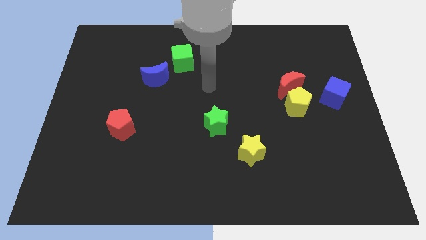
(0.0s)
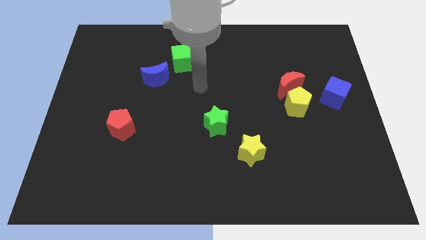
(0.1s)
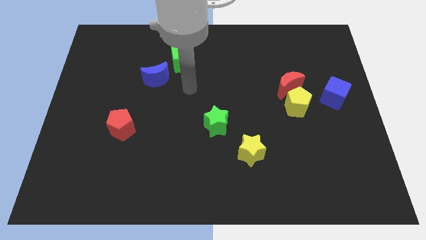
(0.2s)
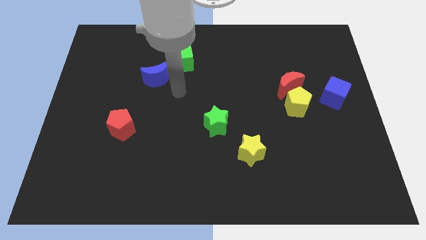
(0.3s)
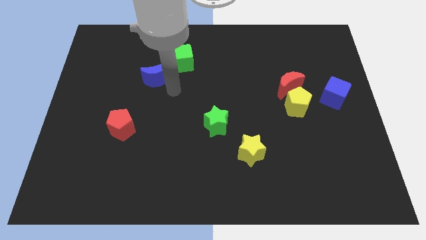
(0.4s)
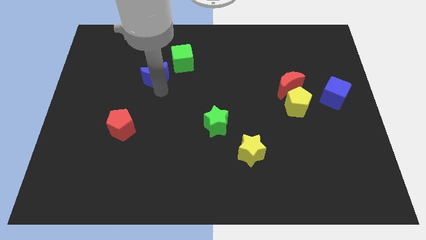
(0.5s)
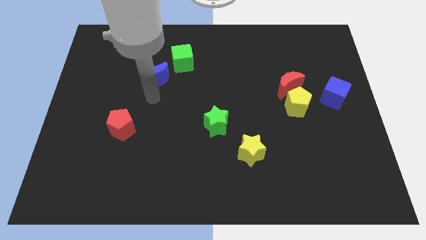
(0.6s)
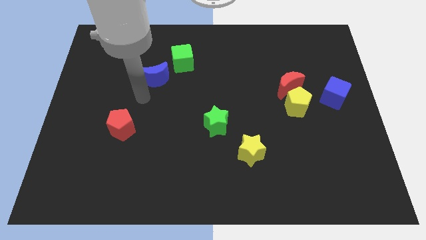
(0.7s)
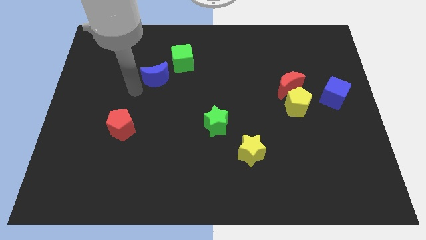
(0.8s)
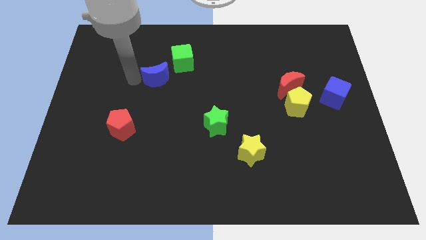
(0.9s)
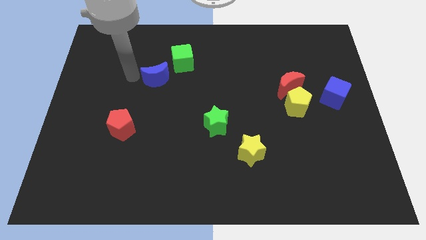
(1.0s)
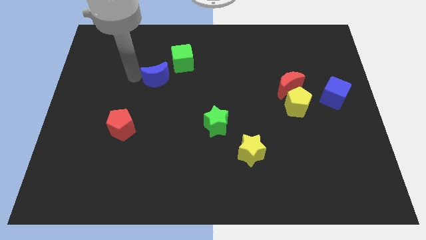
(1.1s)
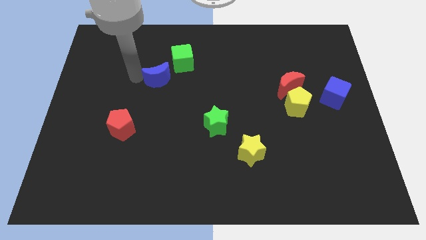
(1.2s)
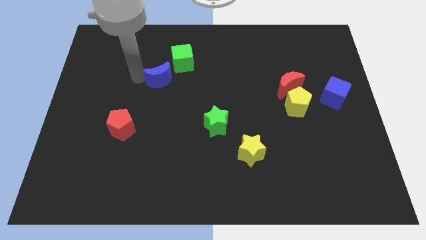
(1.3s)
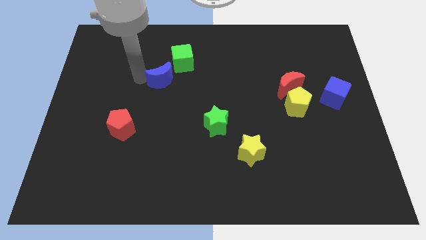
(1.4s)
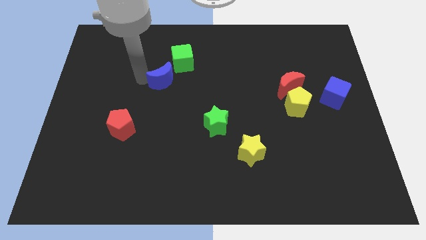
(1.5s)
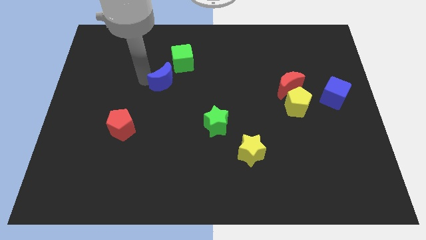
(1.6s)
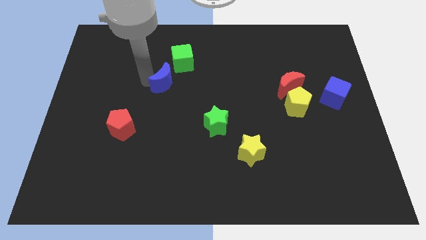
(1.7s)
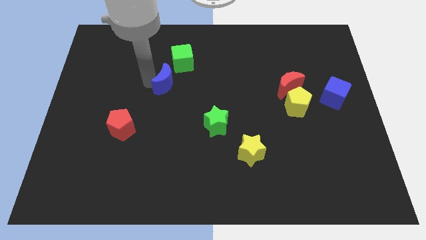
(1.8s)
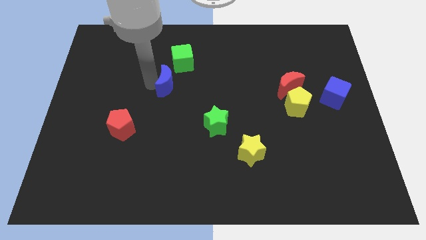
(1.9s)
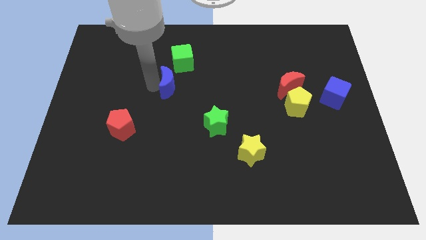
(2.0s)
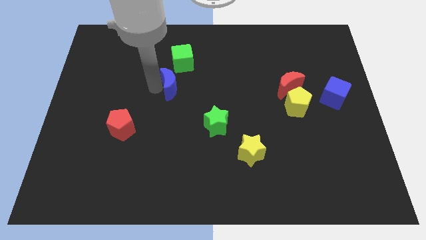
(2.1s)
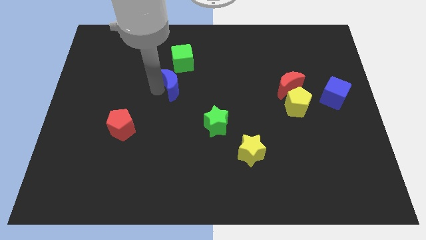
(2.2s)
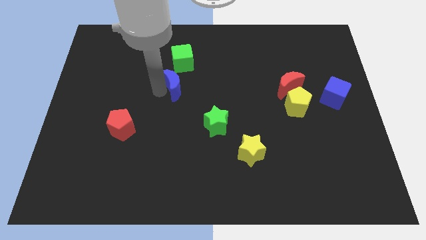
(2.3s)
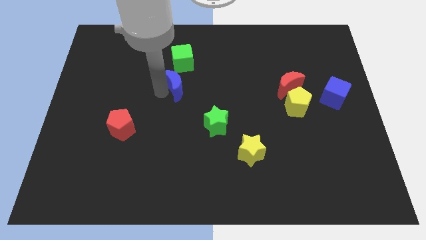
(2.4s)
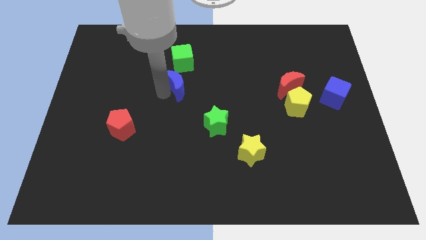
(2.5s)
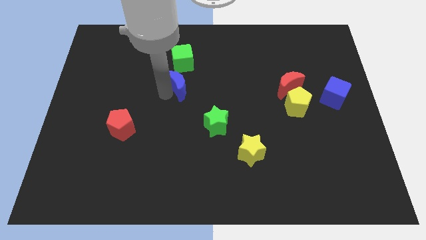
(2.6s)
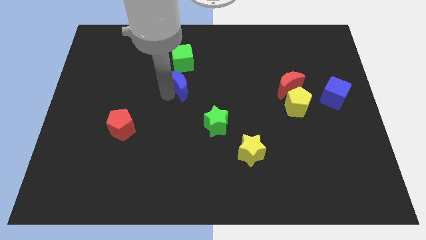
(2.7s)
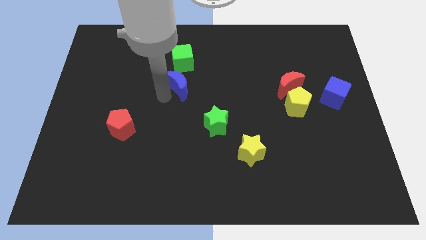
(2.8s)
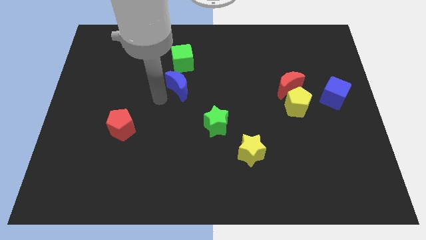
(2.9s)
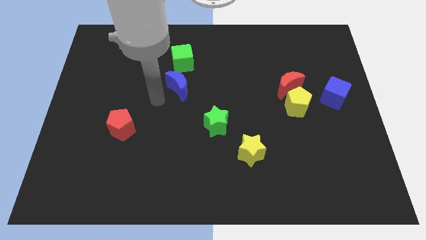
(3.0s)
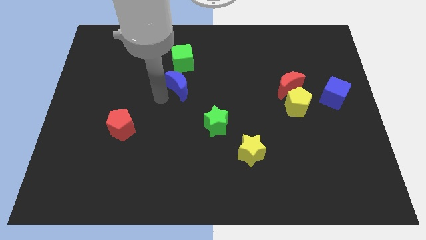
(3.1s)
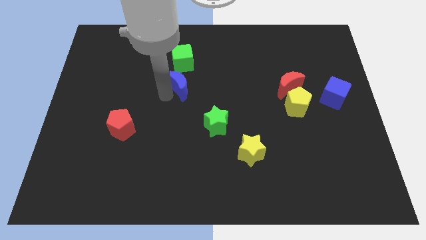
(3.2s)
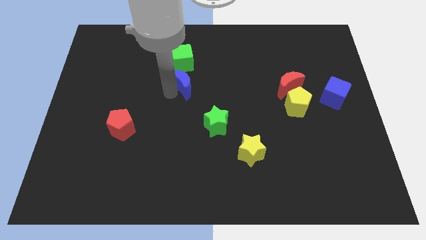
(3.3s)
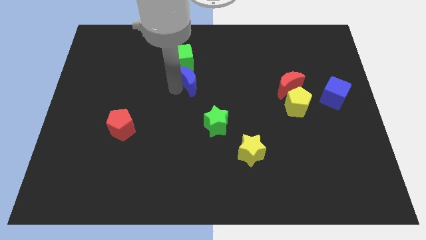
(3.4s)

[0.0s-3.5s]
slide the blue moon right a little

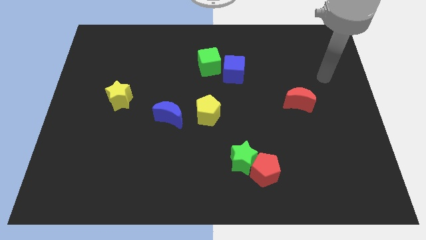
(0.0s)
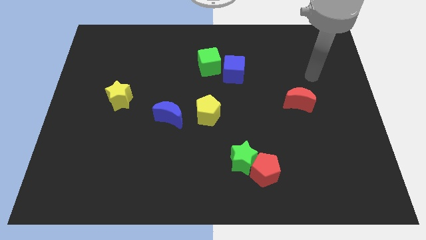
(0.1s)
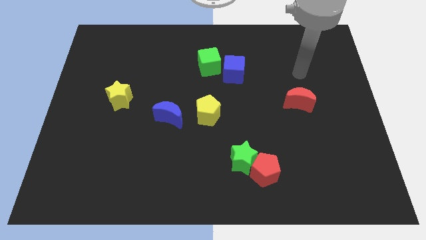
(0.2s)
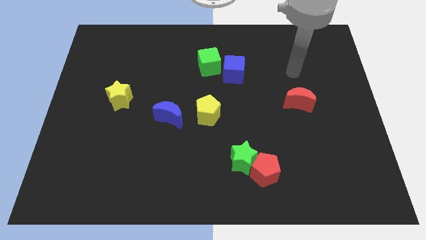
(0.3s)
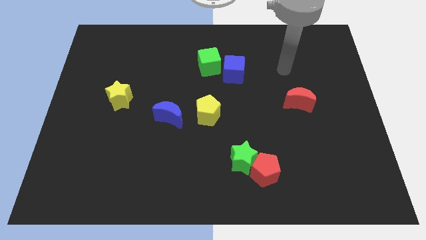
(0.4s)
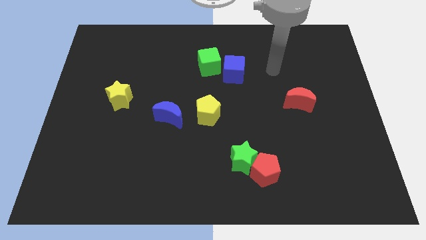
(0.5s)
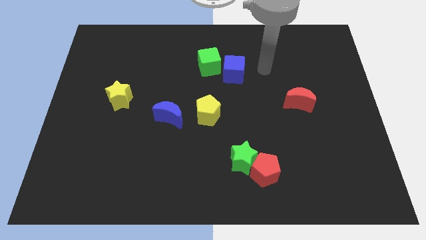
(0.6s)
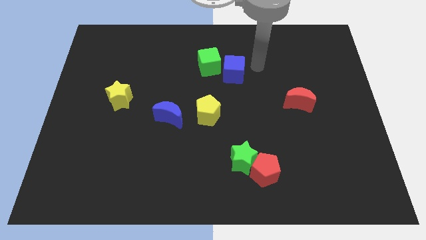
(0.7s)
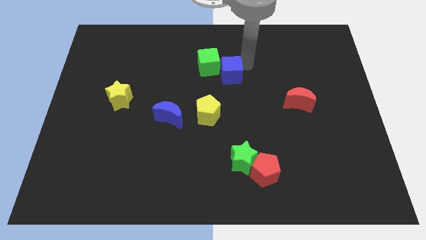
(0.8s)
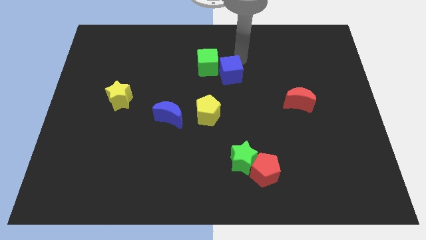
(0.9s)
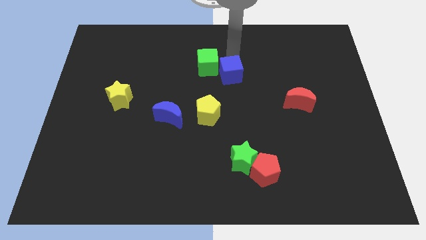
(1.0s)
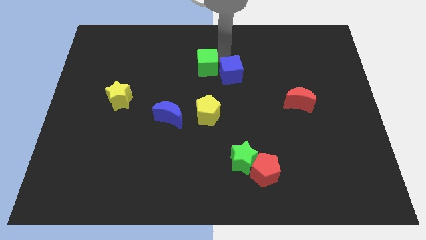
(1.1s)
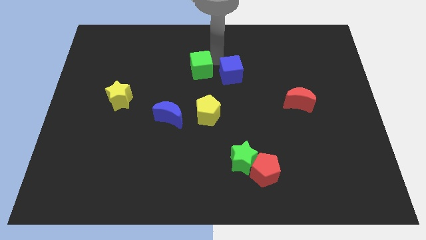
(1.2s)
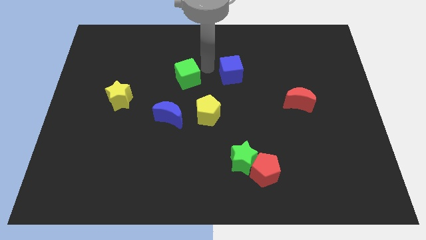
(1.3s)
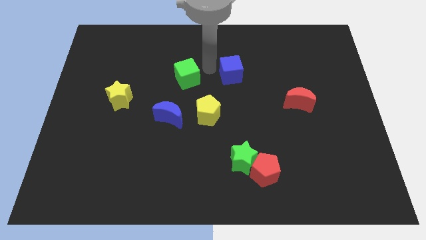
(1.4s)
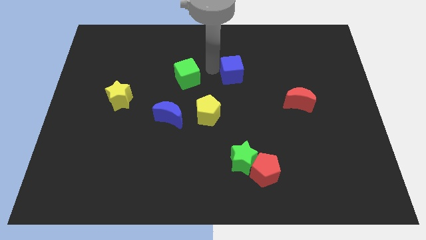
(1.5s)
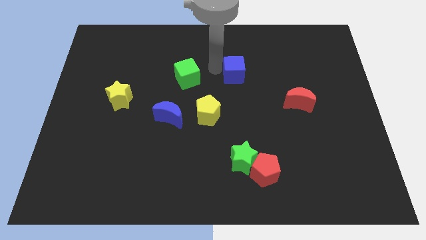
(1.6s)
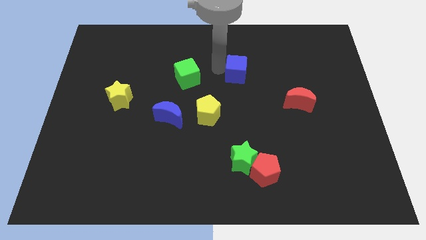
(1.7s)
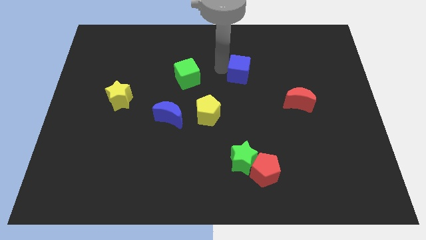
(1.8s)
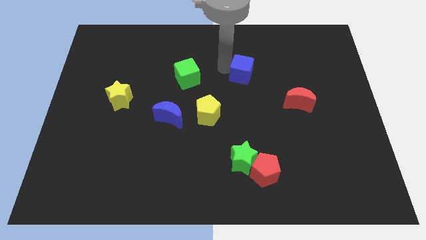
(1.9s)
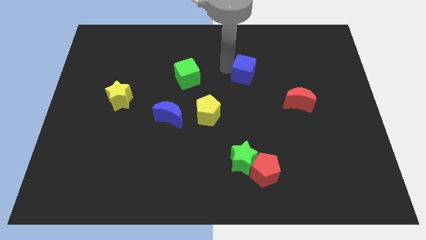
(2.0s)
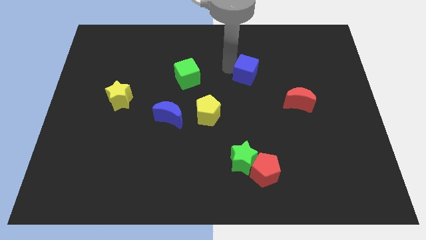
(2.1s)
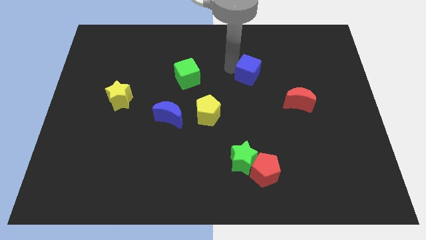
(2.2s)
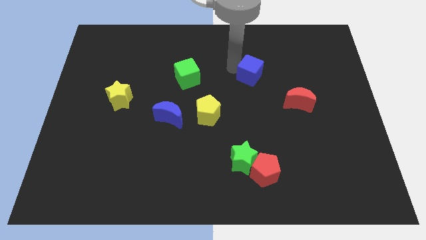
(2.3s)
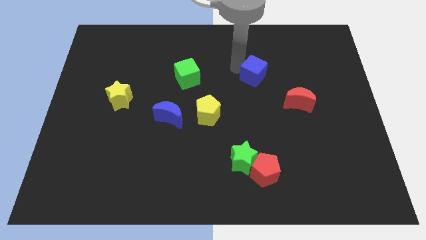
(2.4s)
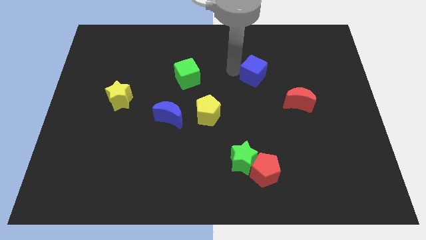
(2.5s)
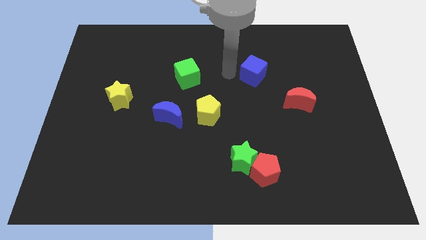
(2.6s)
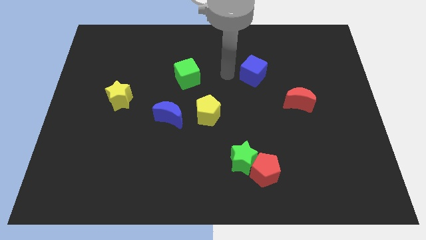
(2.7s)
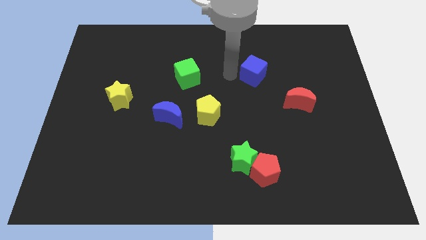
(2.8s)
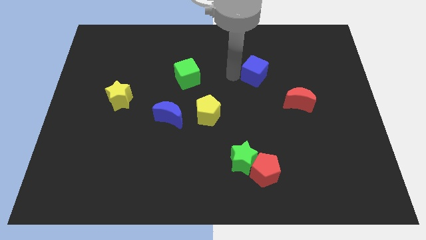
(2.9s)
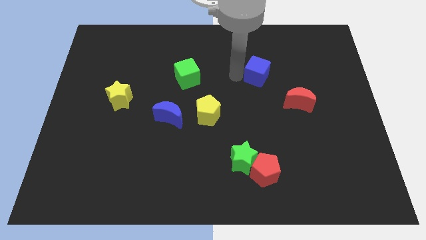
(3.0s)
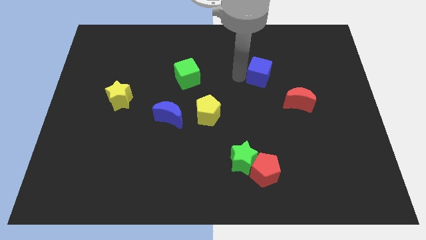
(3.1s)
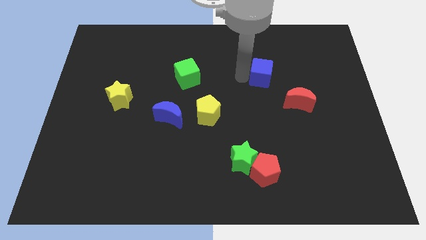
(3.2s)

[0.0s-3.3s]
push the blue cube to the right a little bit

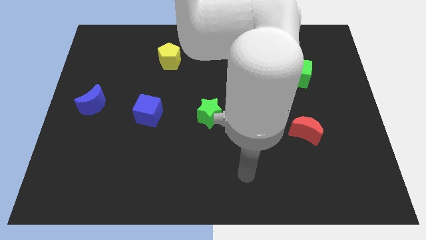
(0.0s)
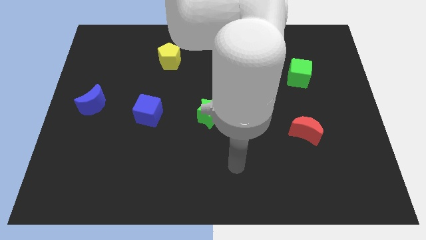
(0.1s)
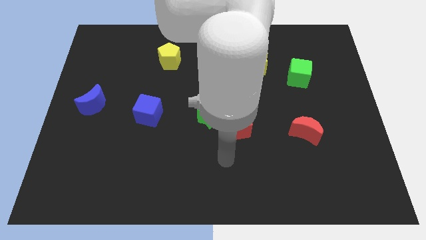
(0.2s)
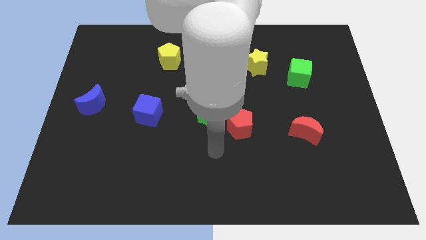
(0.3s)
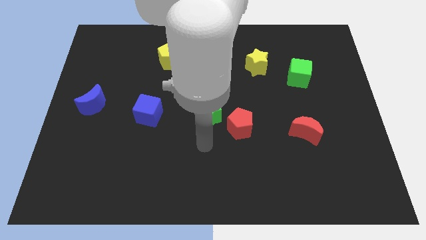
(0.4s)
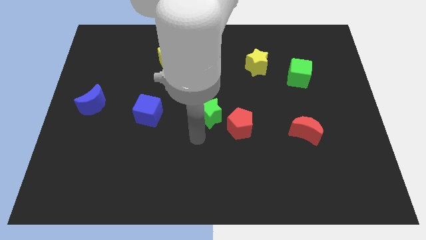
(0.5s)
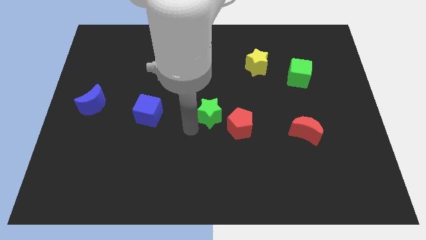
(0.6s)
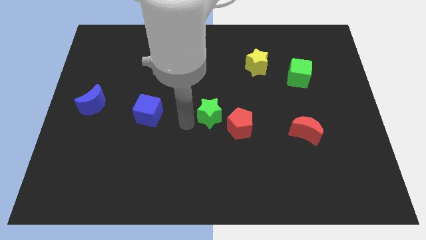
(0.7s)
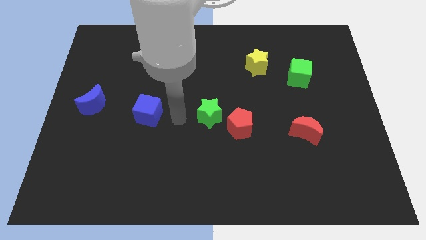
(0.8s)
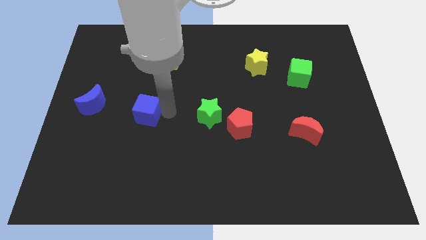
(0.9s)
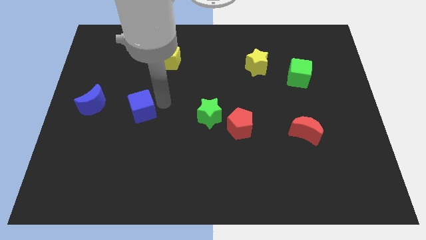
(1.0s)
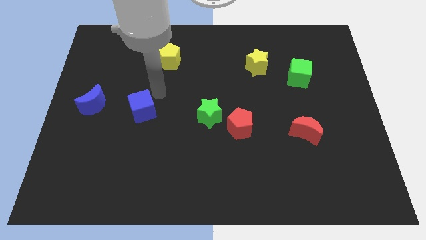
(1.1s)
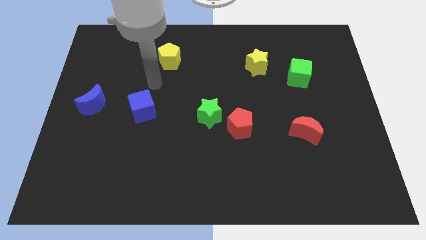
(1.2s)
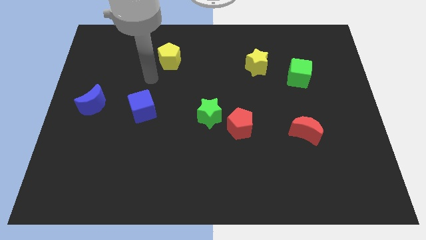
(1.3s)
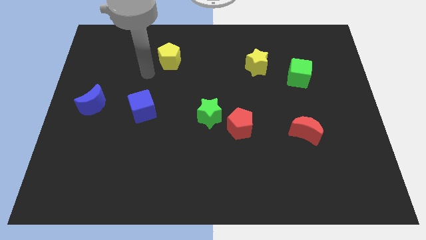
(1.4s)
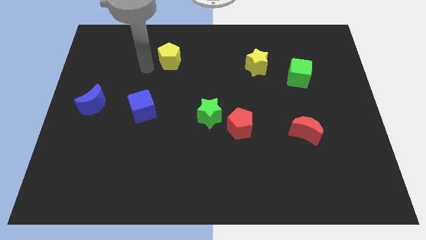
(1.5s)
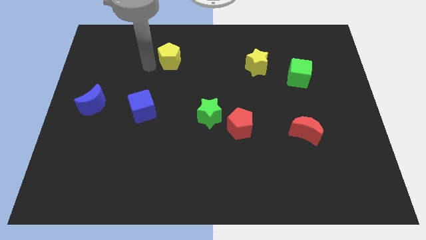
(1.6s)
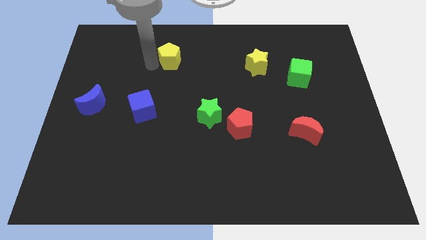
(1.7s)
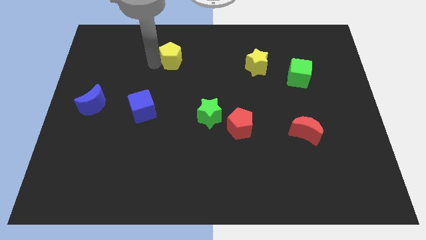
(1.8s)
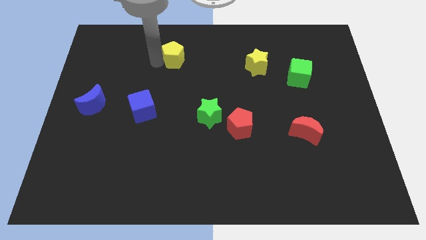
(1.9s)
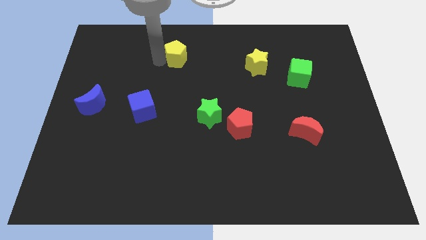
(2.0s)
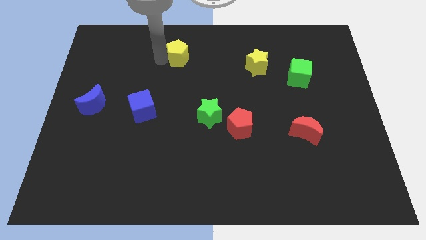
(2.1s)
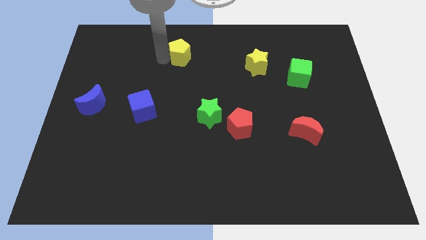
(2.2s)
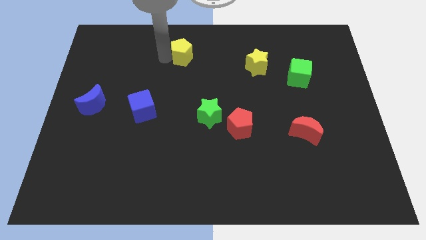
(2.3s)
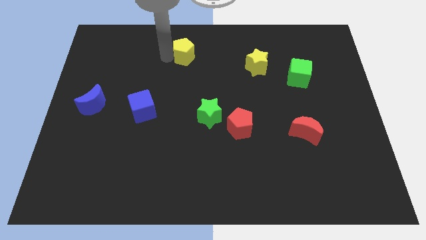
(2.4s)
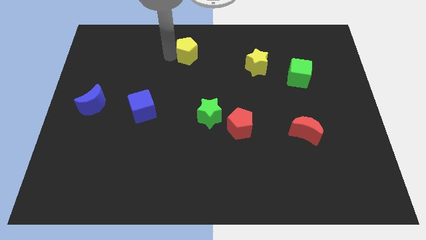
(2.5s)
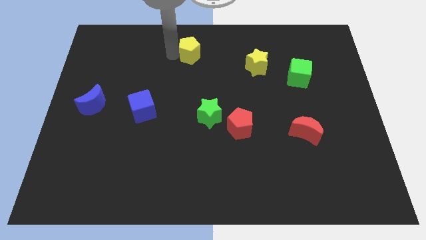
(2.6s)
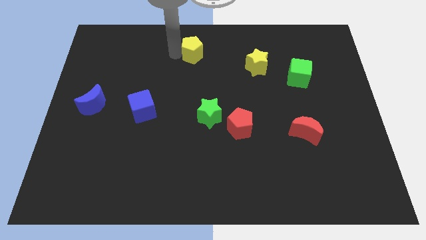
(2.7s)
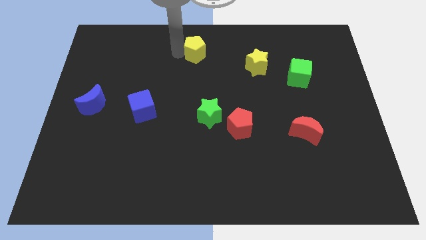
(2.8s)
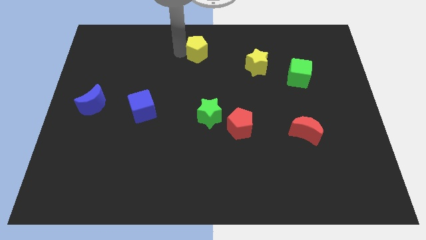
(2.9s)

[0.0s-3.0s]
move the yellow pentagon to the right a little bit
